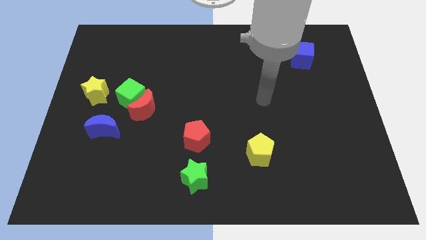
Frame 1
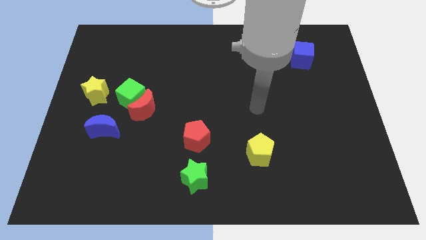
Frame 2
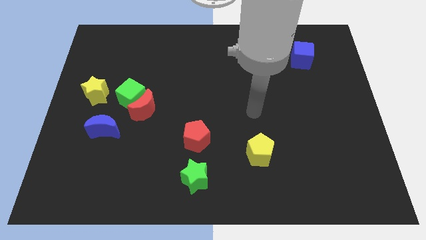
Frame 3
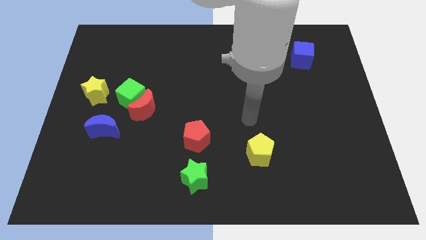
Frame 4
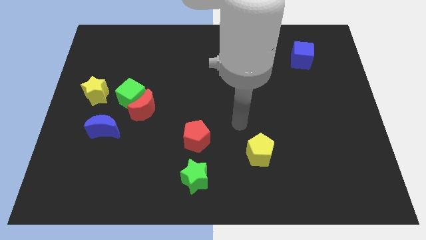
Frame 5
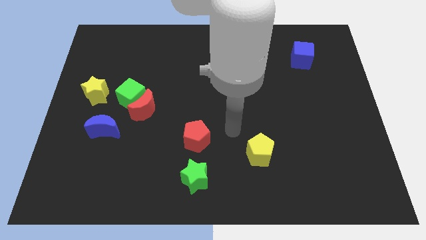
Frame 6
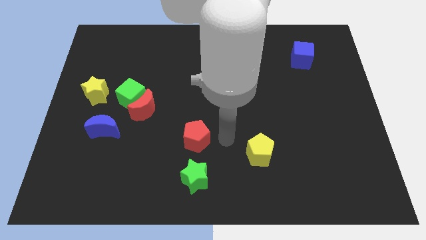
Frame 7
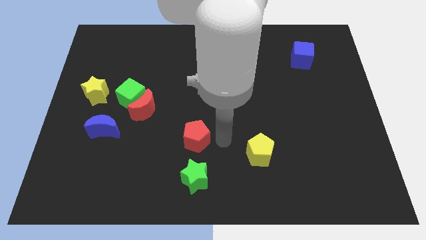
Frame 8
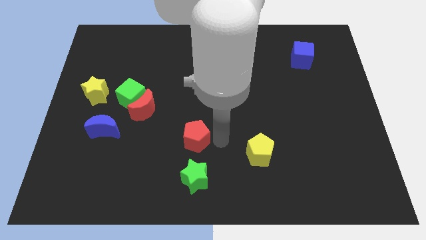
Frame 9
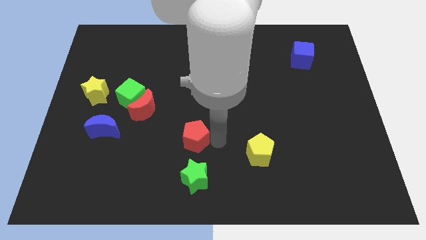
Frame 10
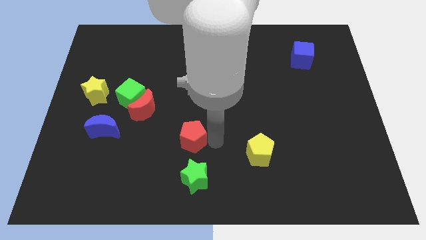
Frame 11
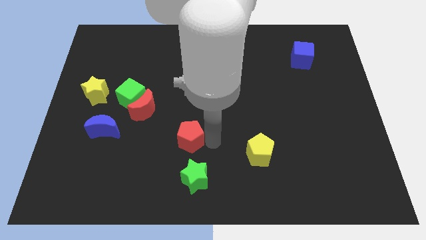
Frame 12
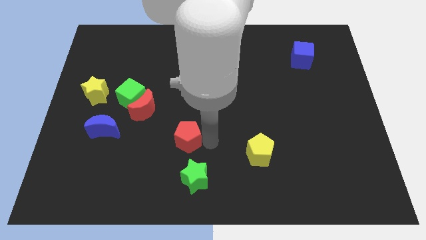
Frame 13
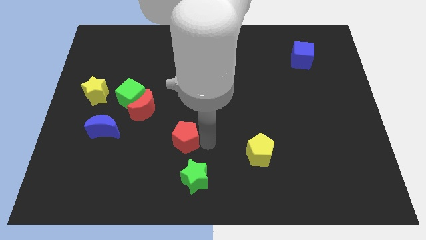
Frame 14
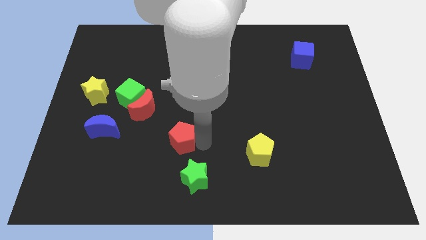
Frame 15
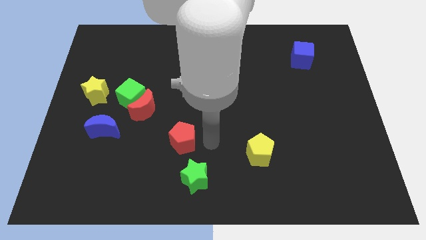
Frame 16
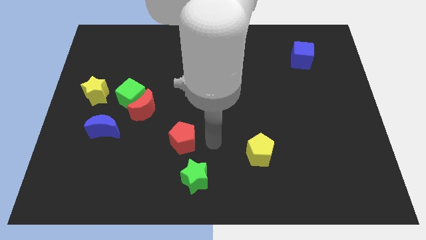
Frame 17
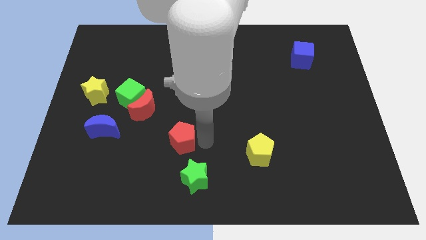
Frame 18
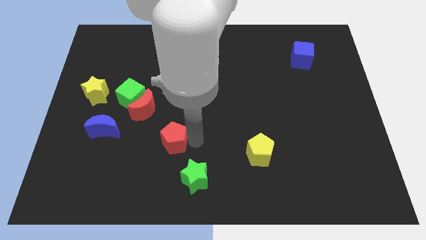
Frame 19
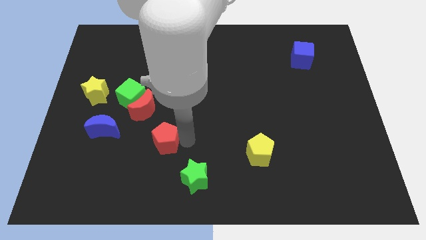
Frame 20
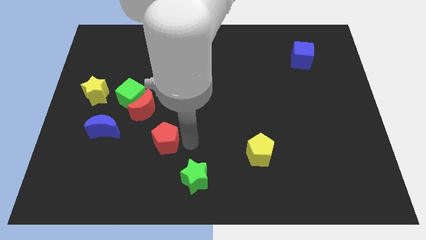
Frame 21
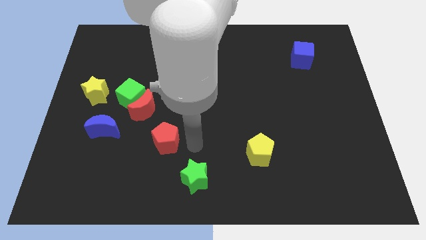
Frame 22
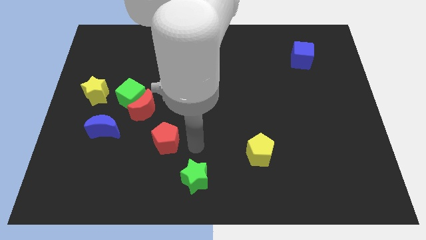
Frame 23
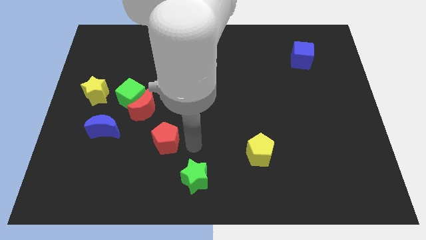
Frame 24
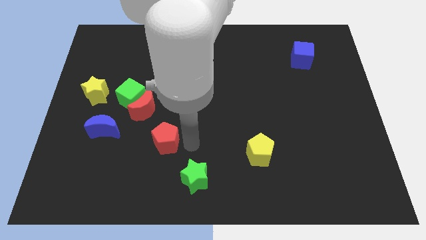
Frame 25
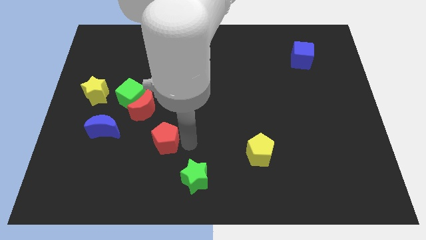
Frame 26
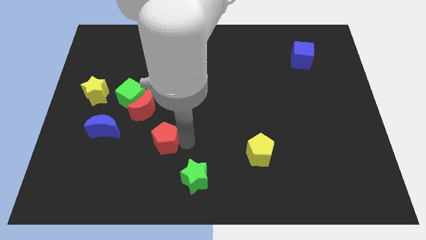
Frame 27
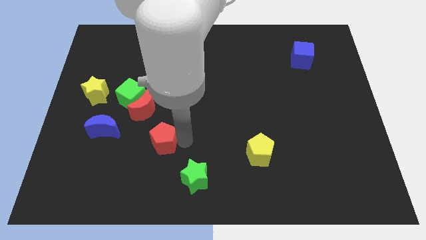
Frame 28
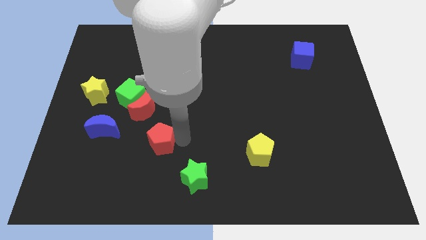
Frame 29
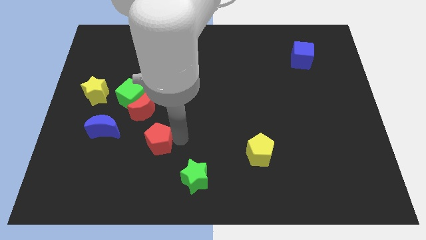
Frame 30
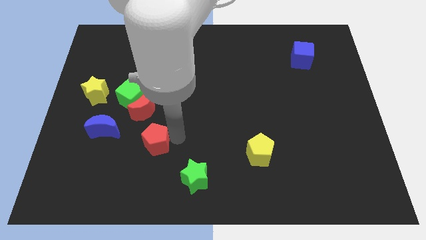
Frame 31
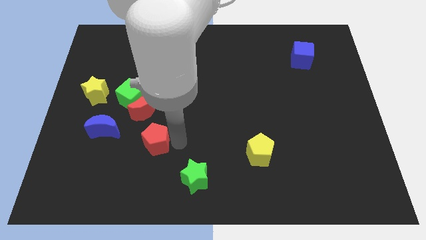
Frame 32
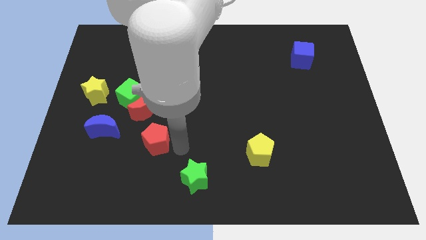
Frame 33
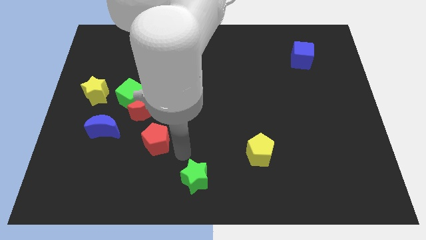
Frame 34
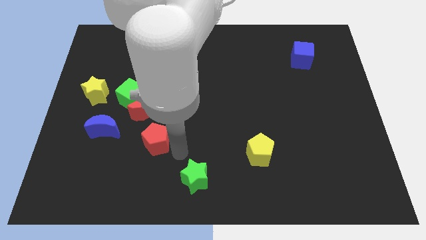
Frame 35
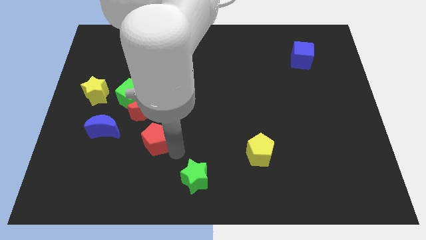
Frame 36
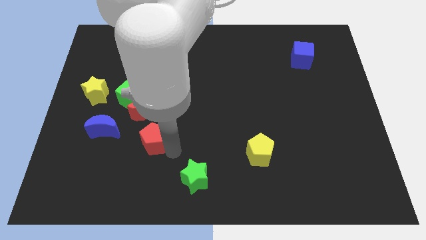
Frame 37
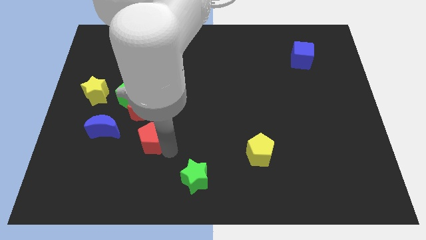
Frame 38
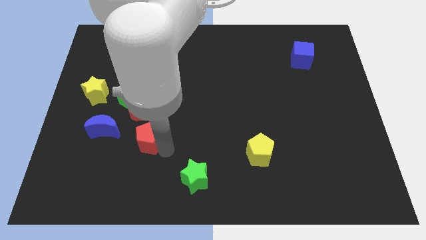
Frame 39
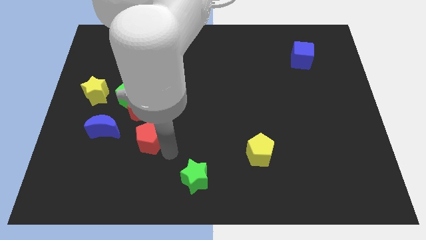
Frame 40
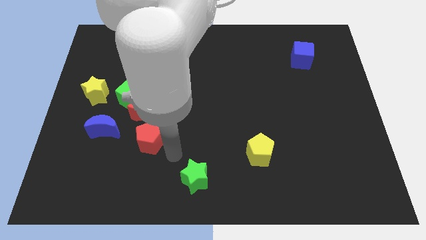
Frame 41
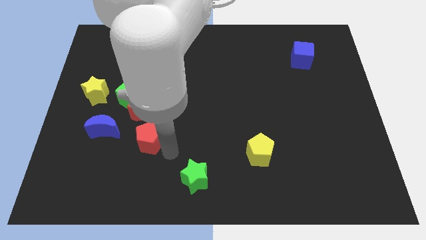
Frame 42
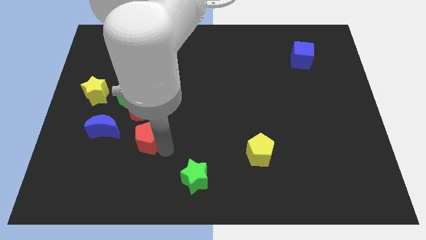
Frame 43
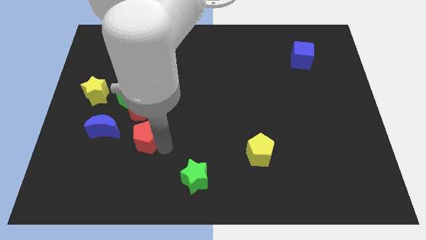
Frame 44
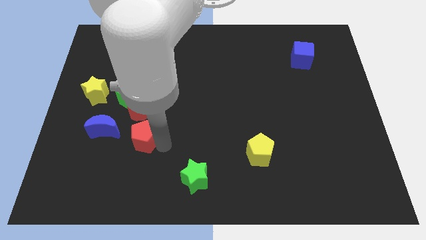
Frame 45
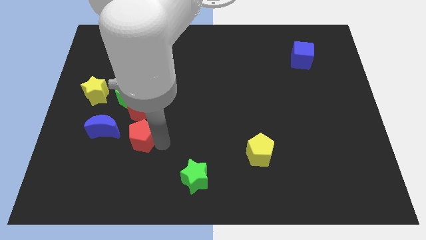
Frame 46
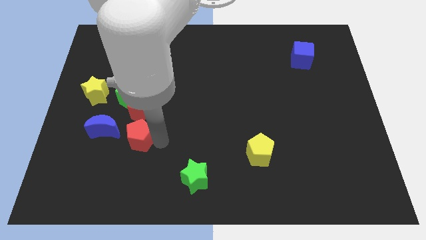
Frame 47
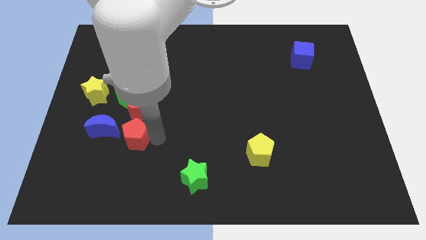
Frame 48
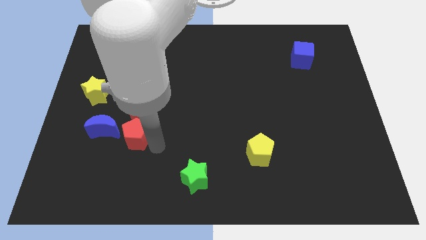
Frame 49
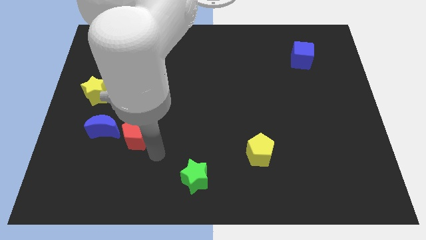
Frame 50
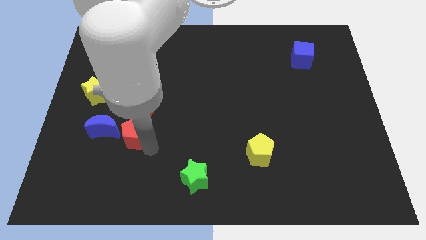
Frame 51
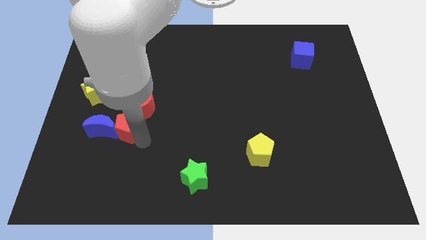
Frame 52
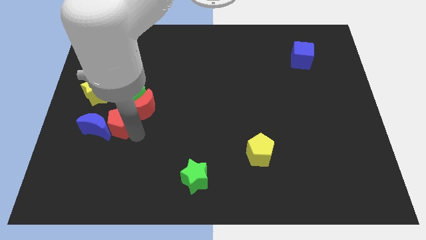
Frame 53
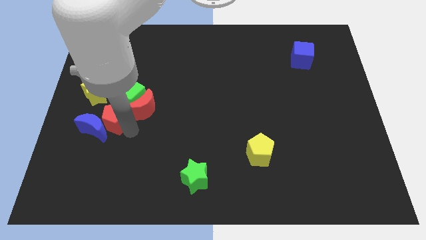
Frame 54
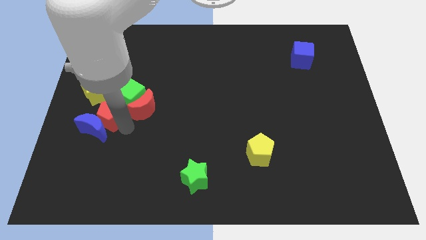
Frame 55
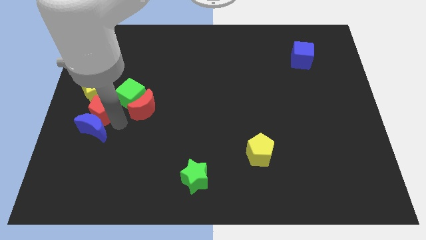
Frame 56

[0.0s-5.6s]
slide the red pentagon towards the yellow star

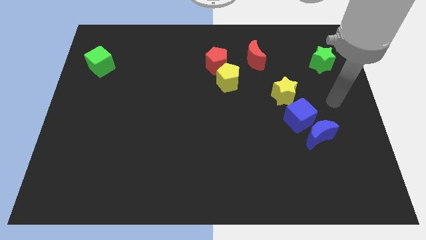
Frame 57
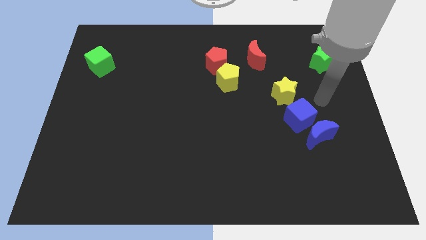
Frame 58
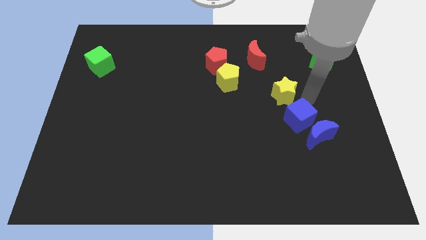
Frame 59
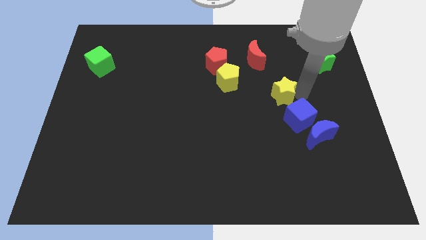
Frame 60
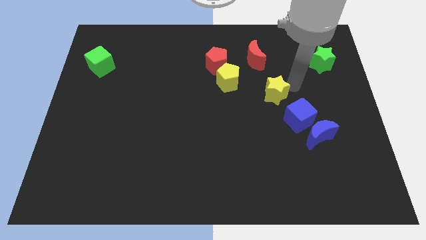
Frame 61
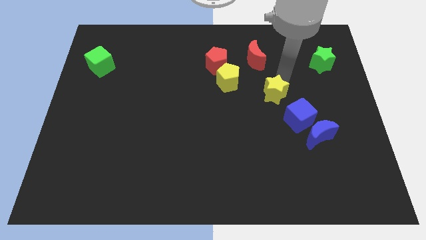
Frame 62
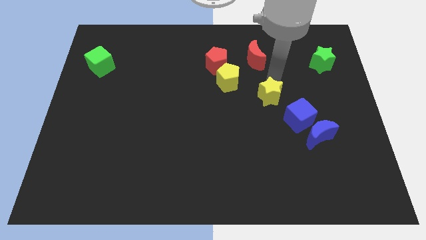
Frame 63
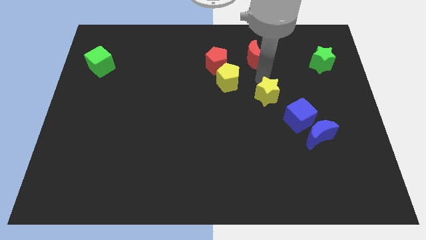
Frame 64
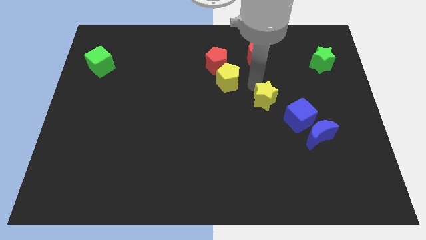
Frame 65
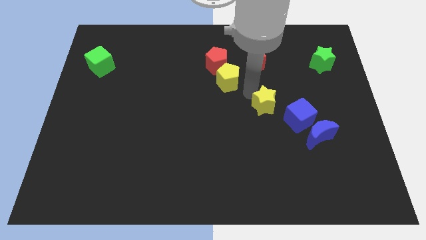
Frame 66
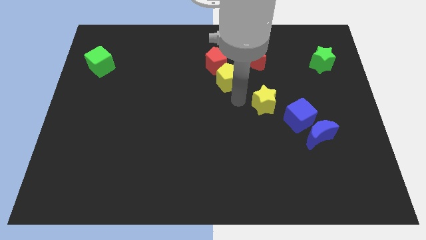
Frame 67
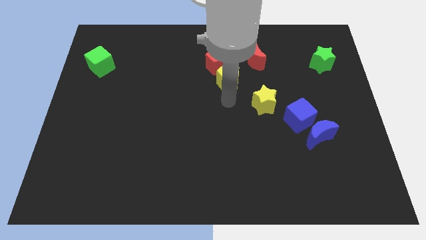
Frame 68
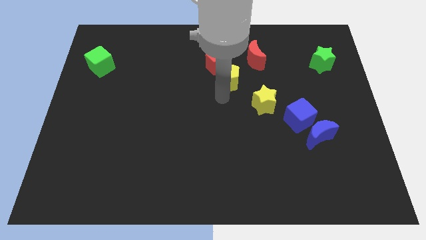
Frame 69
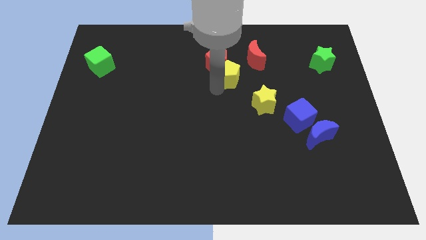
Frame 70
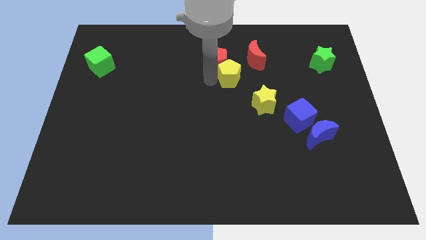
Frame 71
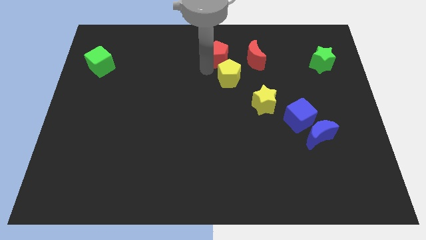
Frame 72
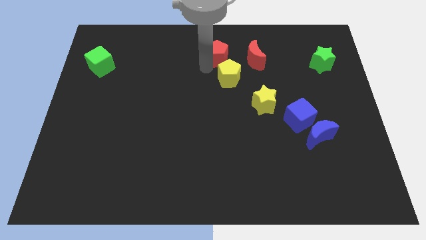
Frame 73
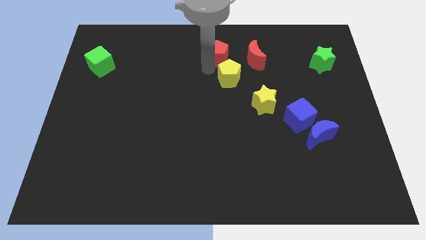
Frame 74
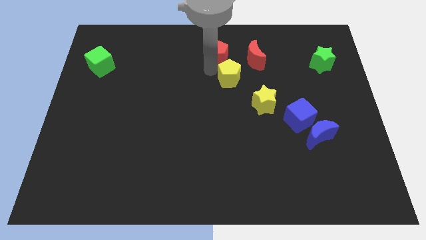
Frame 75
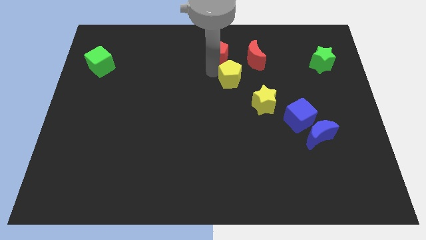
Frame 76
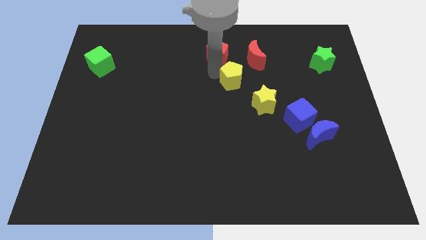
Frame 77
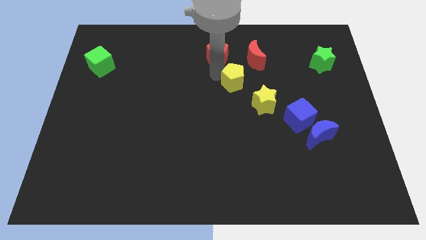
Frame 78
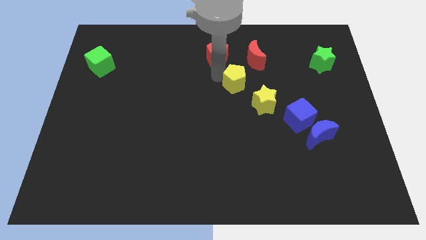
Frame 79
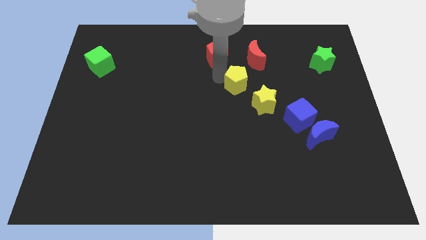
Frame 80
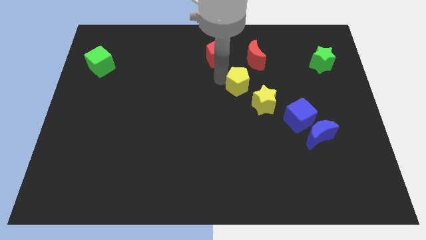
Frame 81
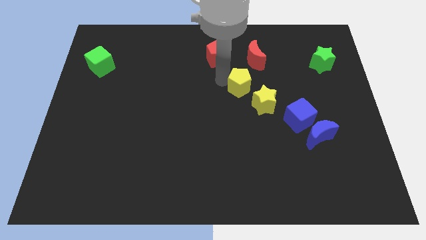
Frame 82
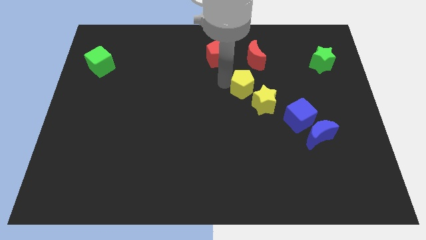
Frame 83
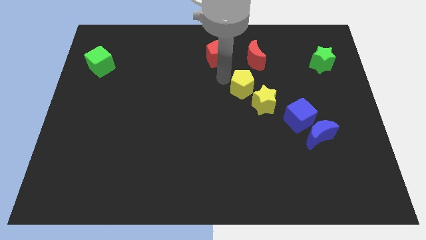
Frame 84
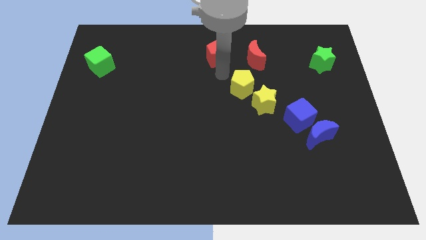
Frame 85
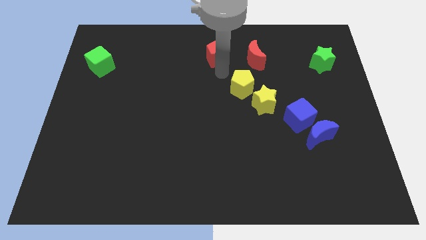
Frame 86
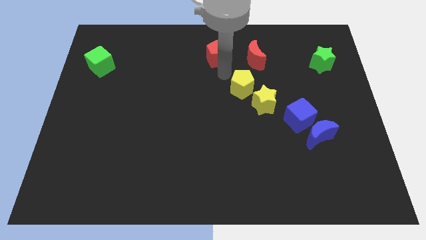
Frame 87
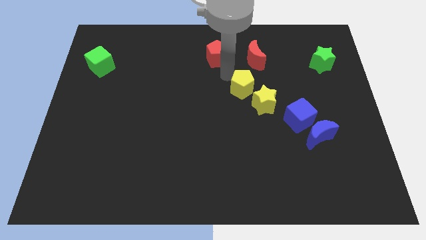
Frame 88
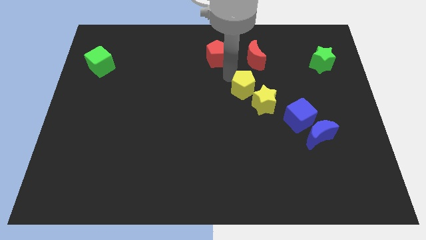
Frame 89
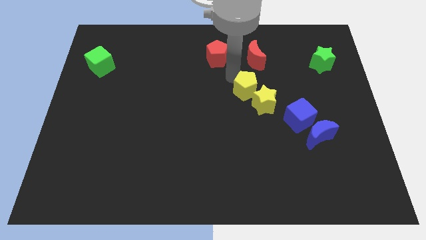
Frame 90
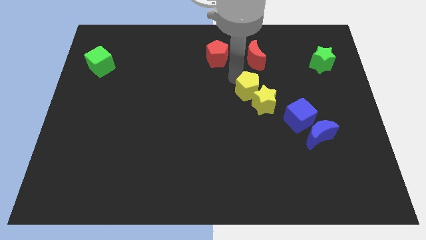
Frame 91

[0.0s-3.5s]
push the yellow pentagon close to the yellow star
